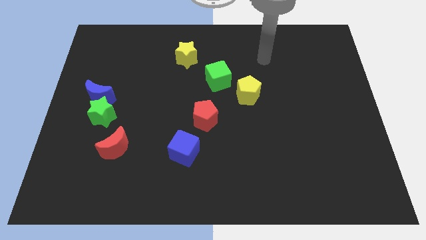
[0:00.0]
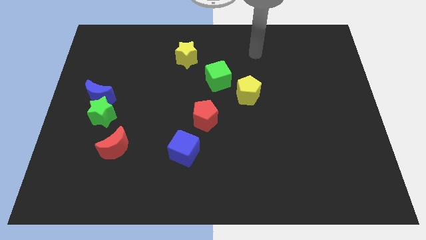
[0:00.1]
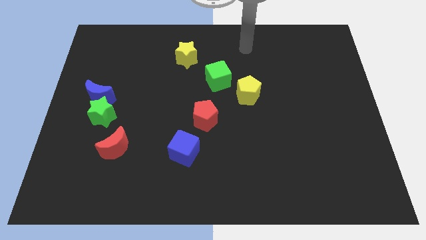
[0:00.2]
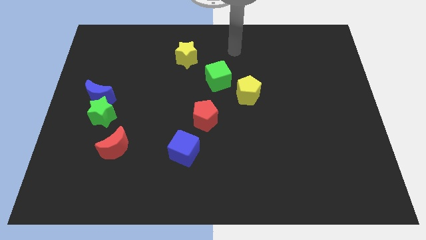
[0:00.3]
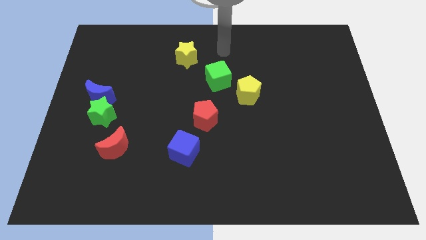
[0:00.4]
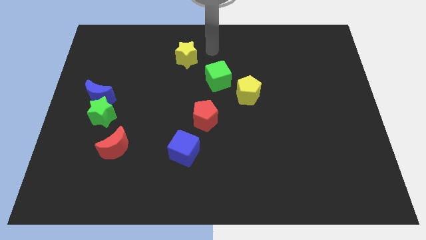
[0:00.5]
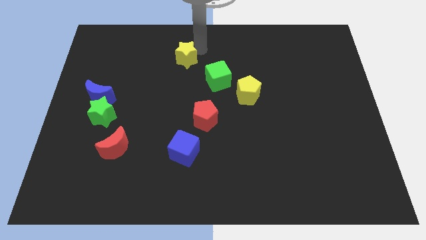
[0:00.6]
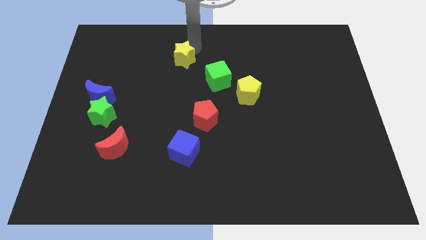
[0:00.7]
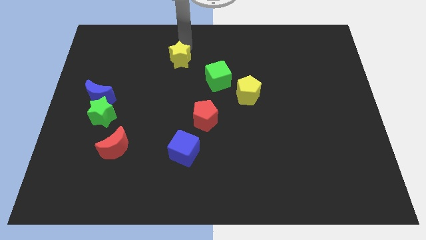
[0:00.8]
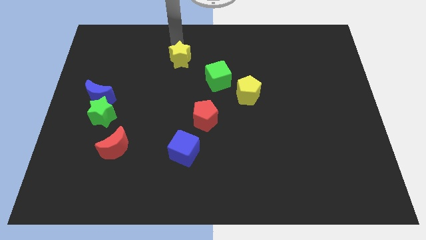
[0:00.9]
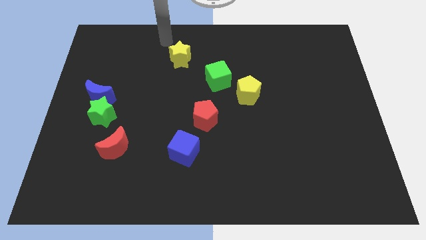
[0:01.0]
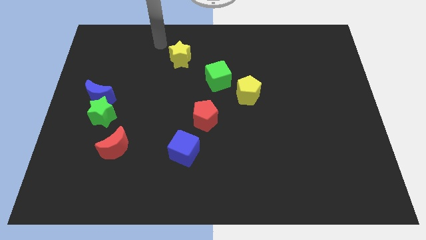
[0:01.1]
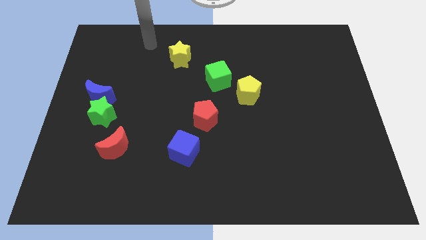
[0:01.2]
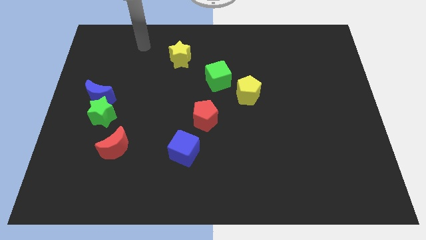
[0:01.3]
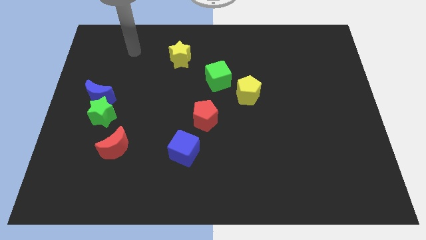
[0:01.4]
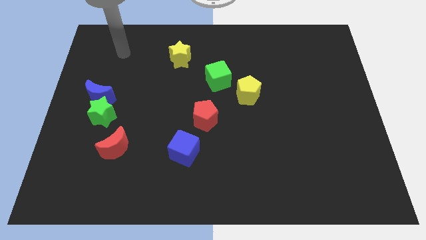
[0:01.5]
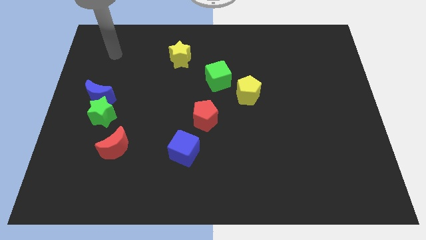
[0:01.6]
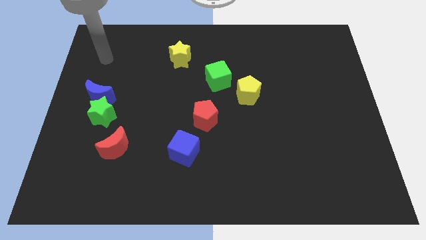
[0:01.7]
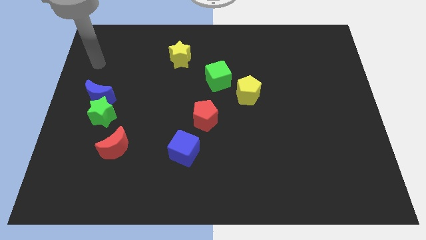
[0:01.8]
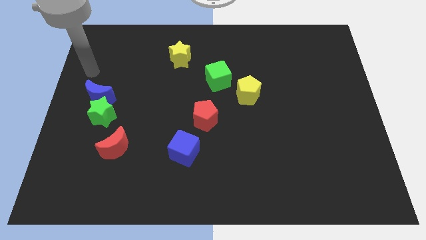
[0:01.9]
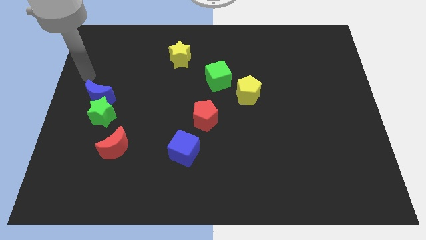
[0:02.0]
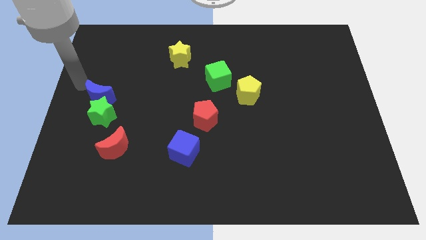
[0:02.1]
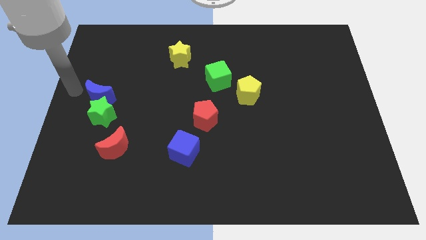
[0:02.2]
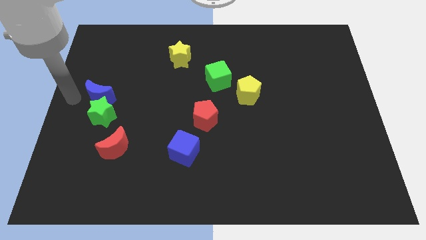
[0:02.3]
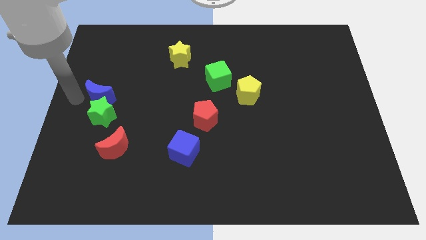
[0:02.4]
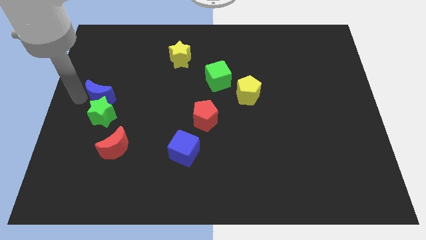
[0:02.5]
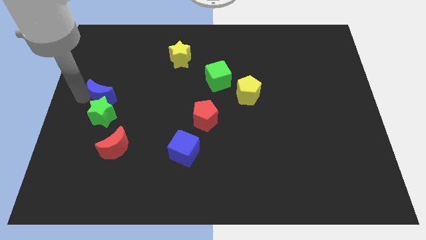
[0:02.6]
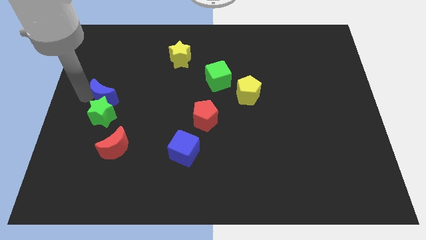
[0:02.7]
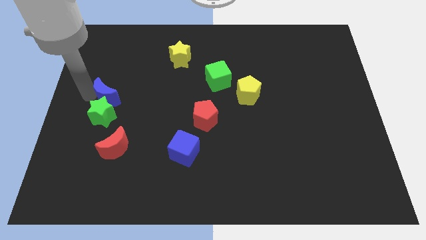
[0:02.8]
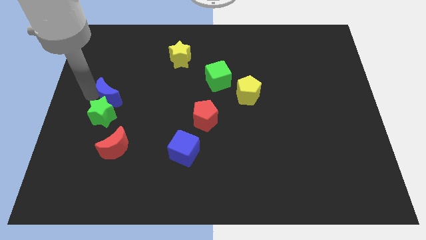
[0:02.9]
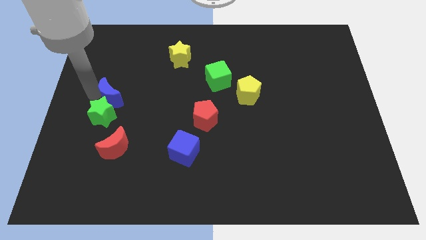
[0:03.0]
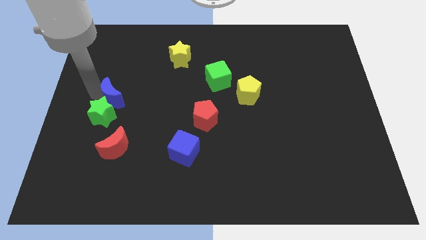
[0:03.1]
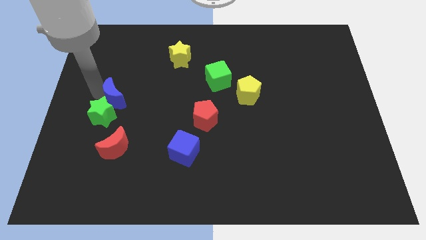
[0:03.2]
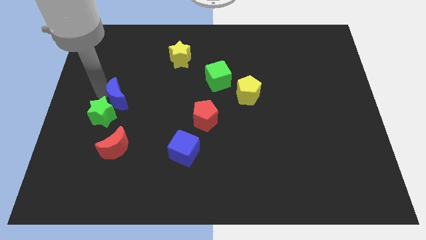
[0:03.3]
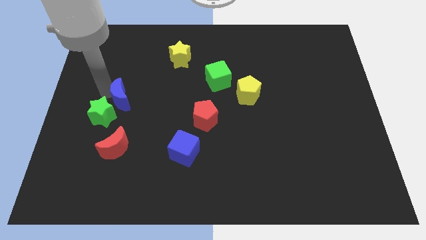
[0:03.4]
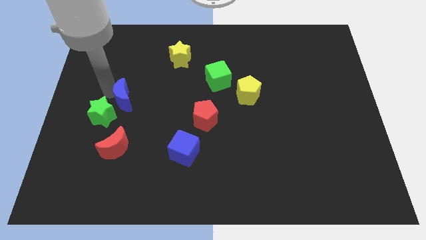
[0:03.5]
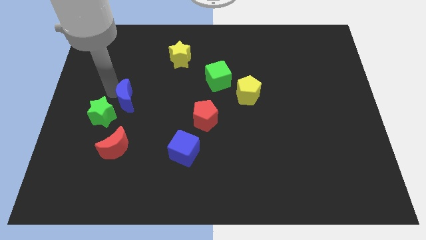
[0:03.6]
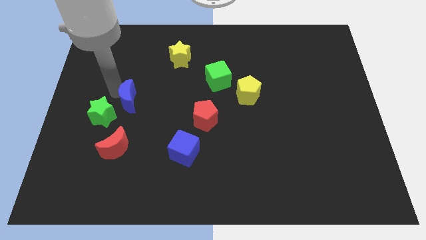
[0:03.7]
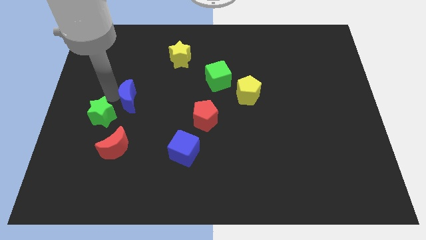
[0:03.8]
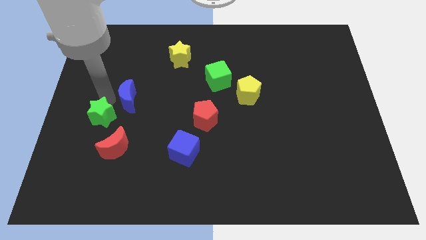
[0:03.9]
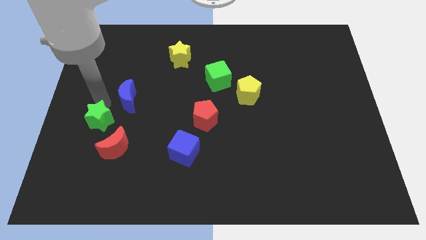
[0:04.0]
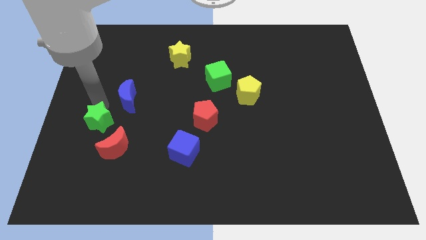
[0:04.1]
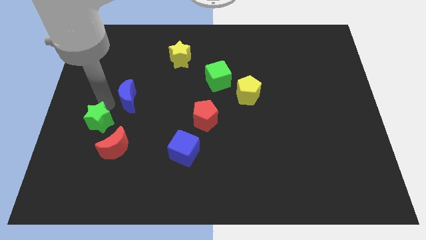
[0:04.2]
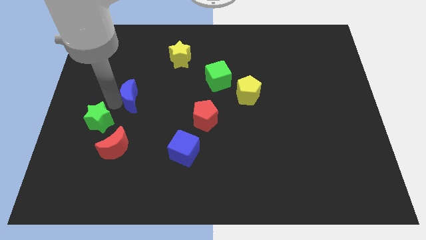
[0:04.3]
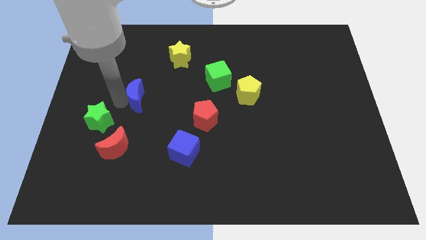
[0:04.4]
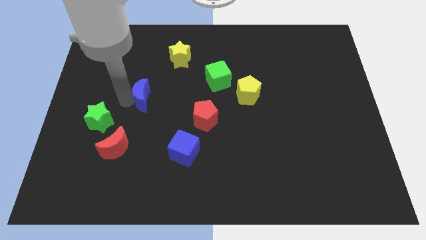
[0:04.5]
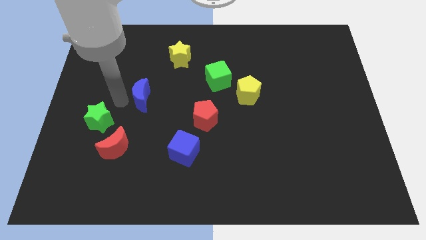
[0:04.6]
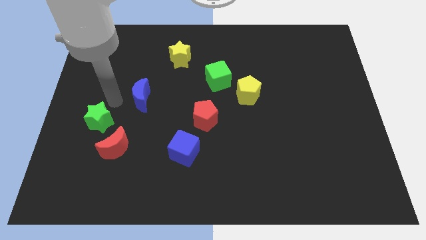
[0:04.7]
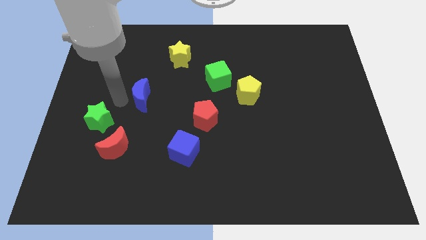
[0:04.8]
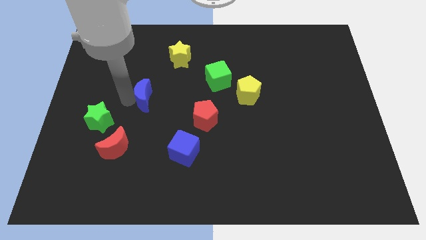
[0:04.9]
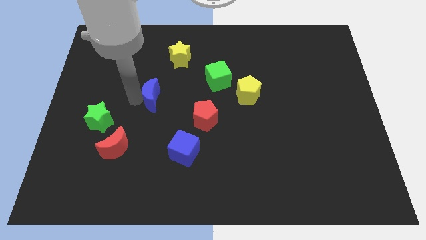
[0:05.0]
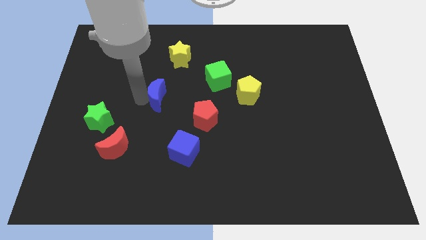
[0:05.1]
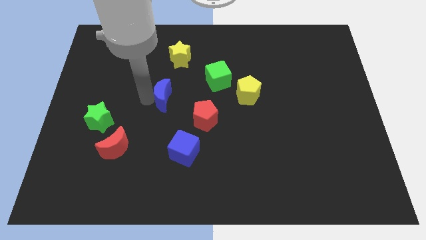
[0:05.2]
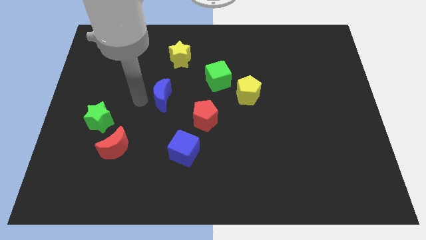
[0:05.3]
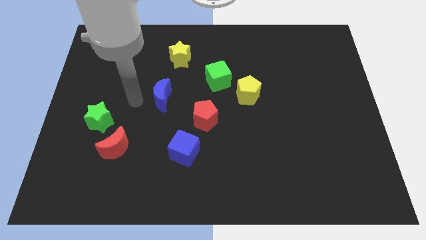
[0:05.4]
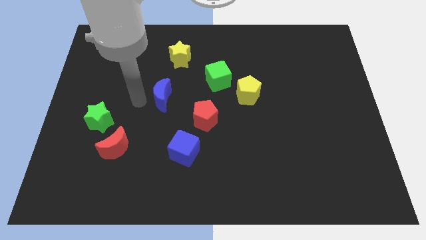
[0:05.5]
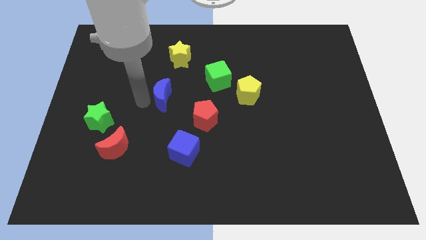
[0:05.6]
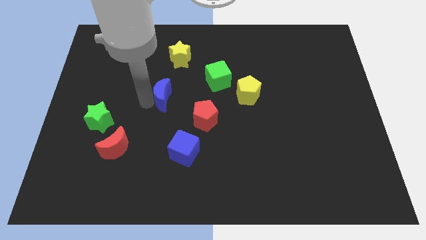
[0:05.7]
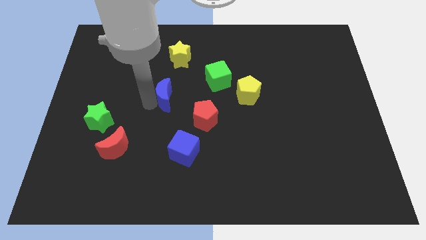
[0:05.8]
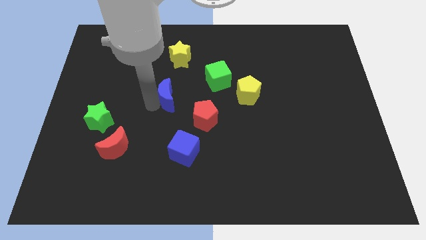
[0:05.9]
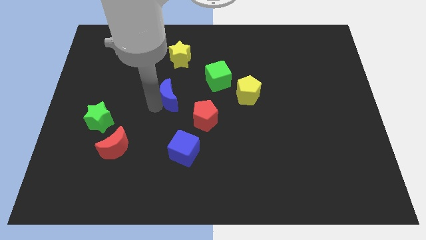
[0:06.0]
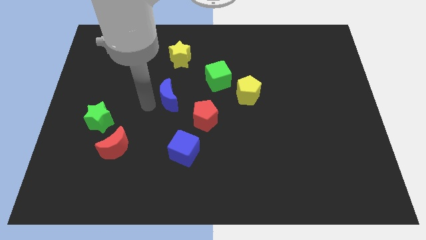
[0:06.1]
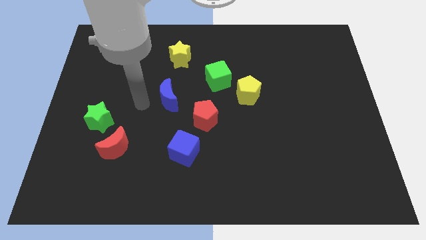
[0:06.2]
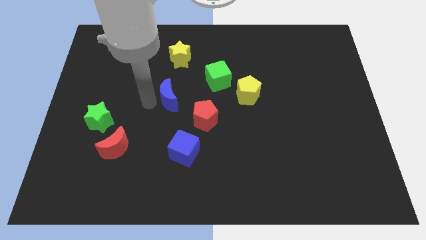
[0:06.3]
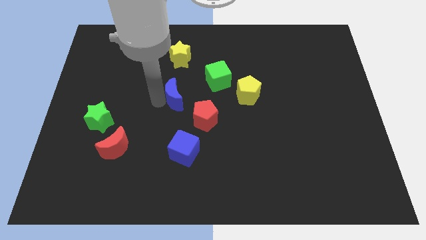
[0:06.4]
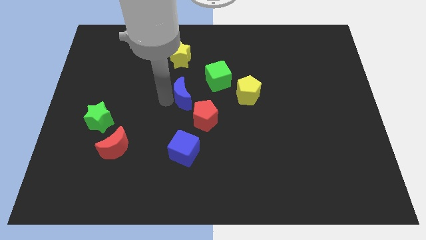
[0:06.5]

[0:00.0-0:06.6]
move the blue moon just left of the yellow pentagon
